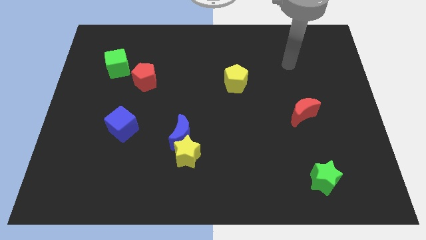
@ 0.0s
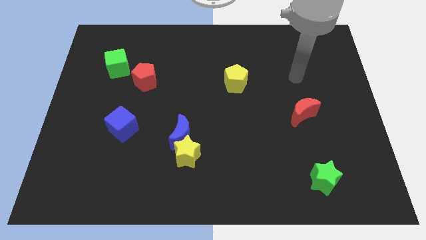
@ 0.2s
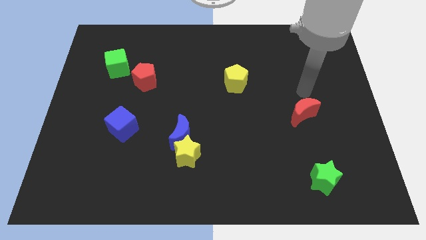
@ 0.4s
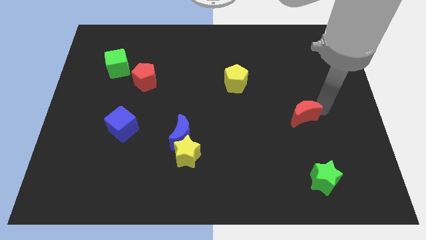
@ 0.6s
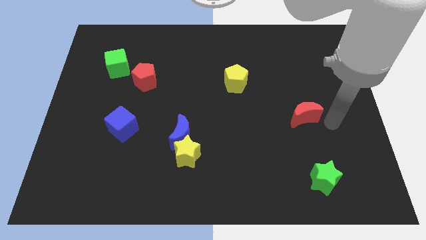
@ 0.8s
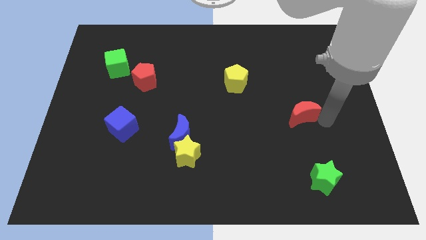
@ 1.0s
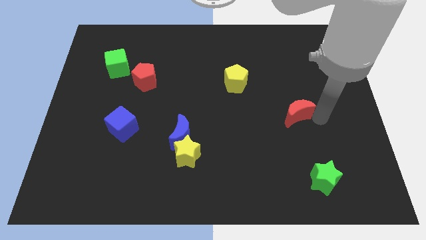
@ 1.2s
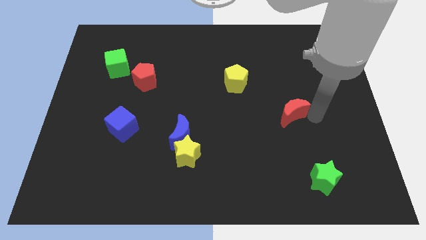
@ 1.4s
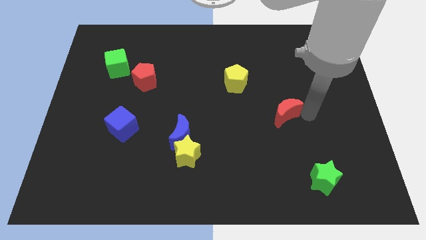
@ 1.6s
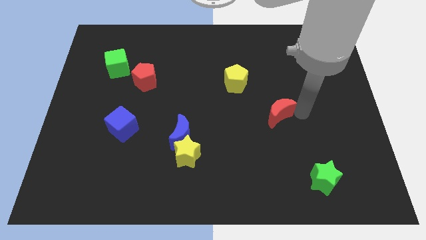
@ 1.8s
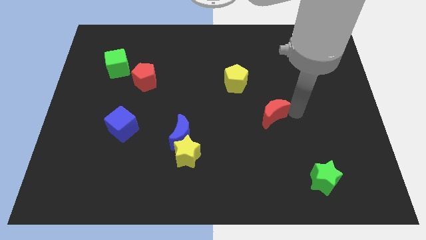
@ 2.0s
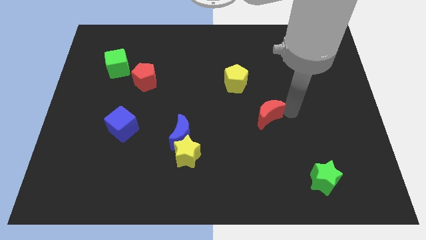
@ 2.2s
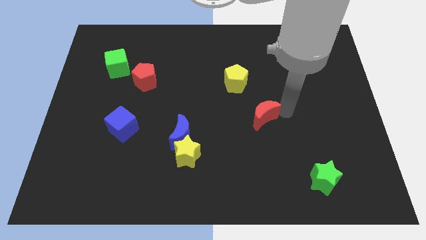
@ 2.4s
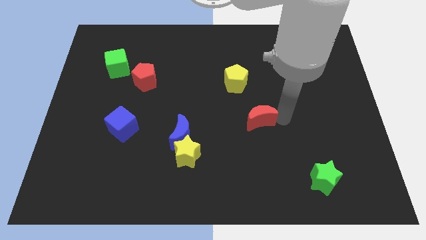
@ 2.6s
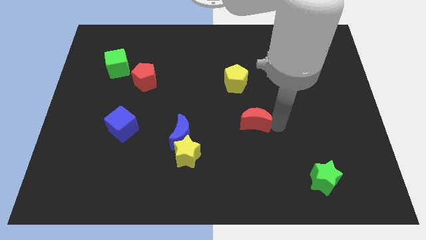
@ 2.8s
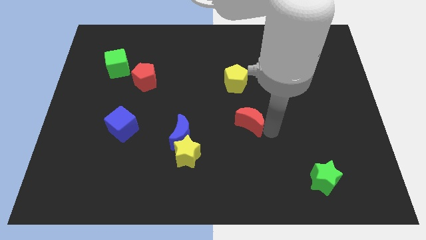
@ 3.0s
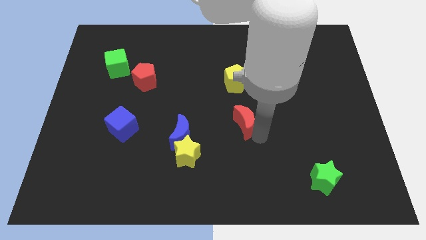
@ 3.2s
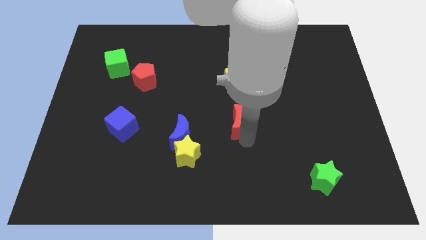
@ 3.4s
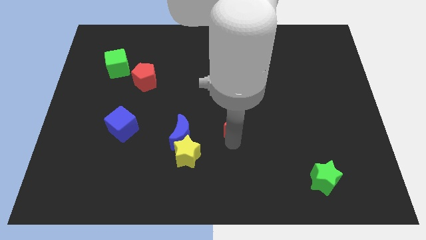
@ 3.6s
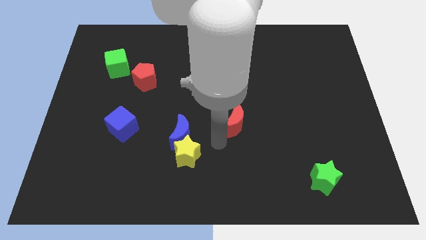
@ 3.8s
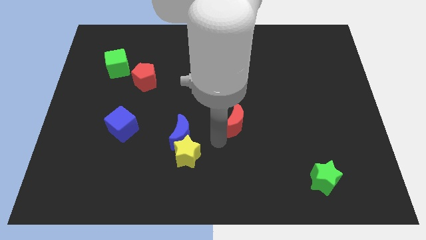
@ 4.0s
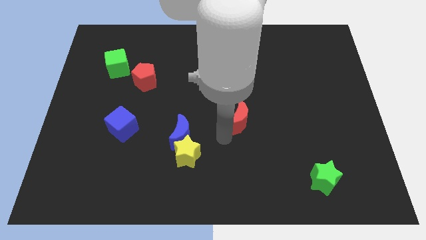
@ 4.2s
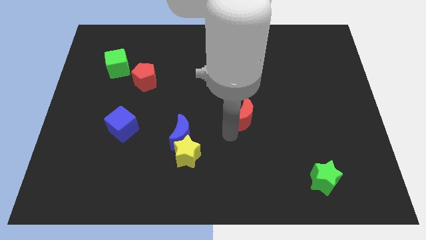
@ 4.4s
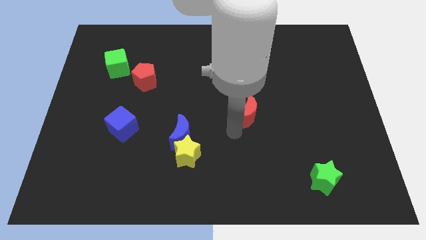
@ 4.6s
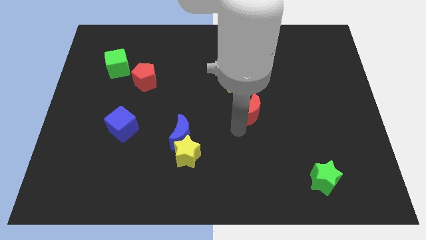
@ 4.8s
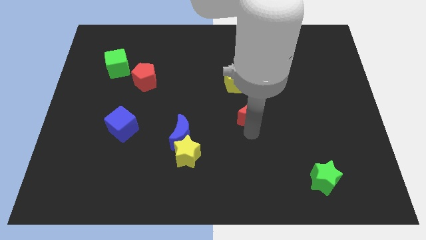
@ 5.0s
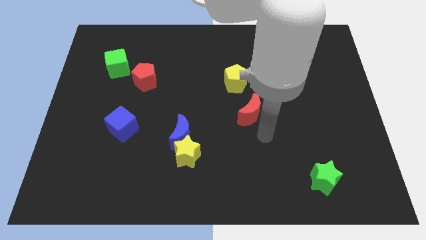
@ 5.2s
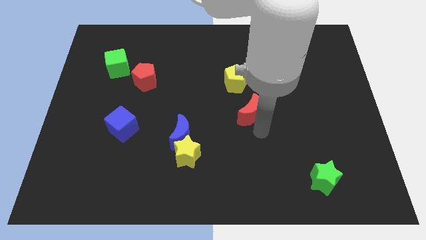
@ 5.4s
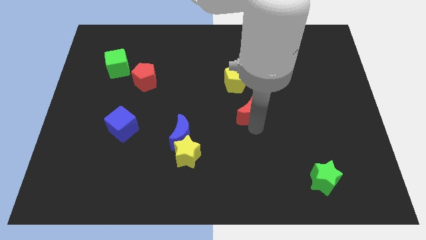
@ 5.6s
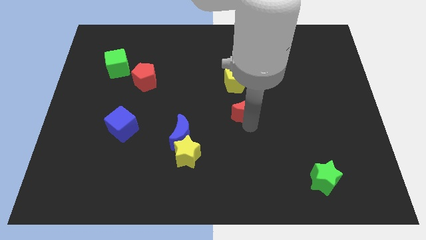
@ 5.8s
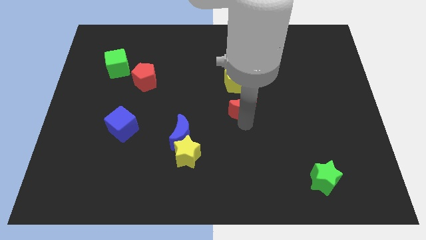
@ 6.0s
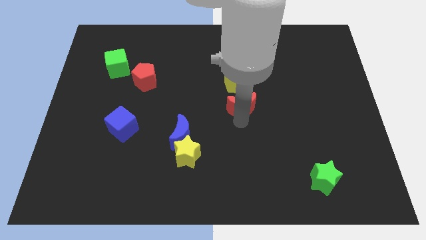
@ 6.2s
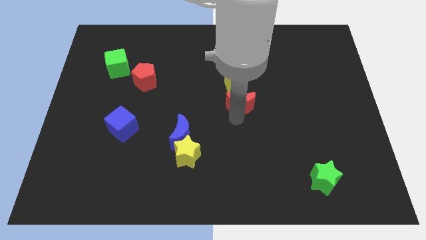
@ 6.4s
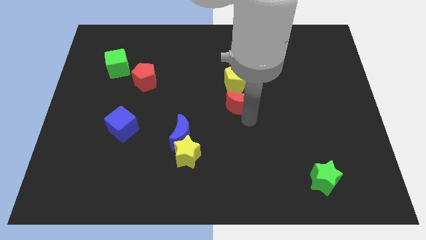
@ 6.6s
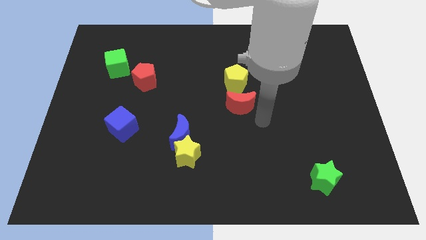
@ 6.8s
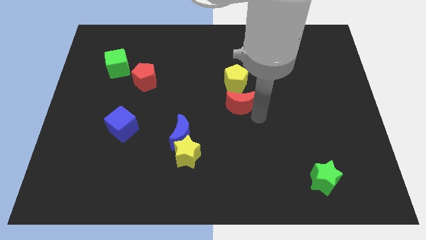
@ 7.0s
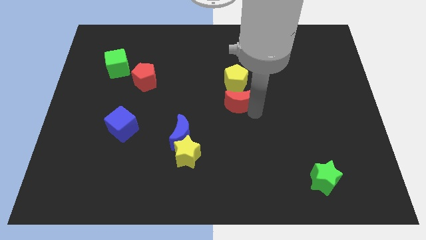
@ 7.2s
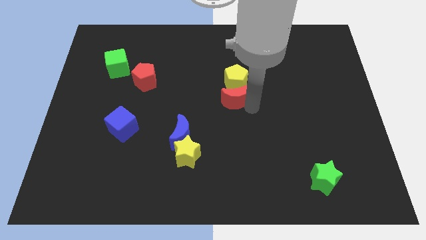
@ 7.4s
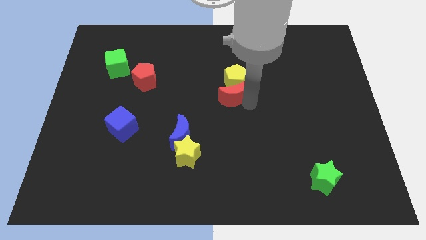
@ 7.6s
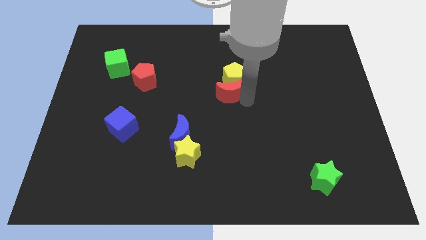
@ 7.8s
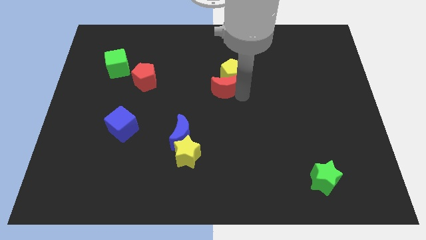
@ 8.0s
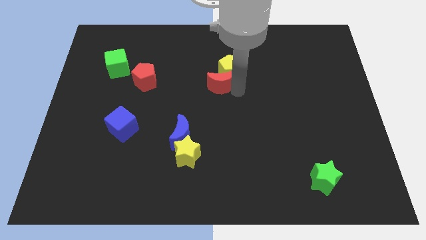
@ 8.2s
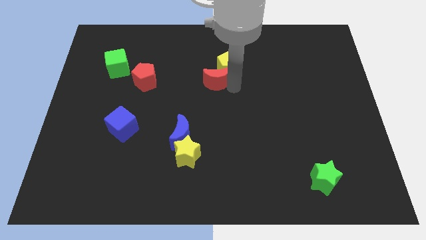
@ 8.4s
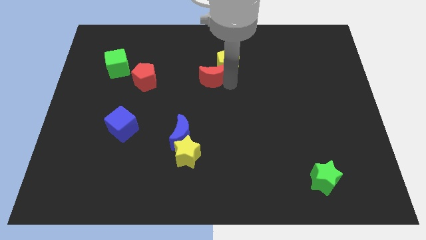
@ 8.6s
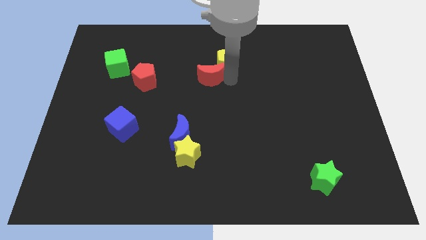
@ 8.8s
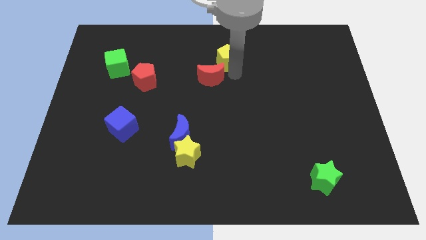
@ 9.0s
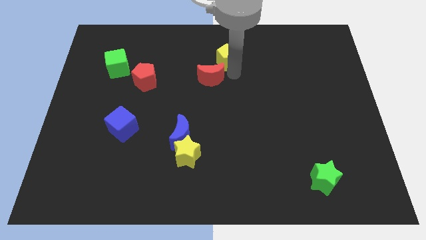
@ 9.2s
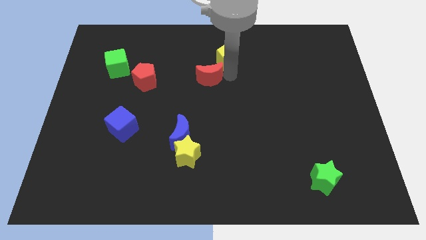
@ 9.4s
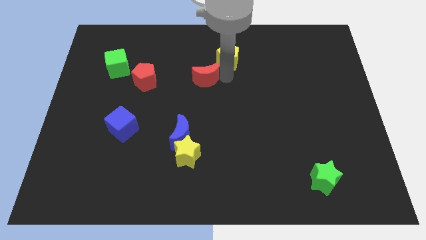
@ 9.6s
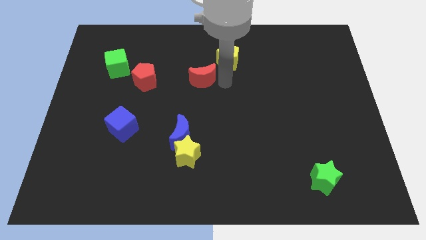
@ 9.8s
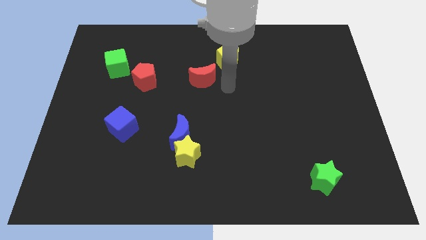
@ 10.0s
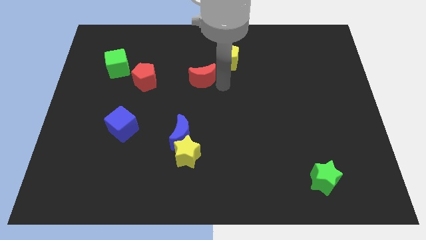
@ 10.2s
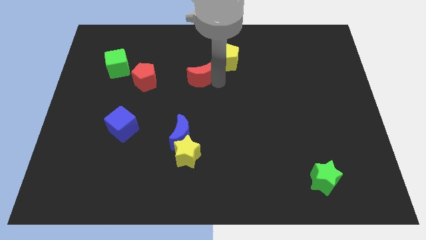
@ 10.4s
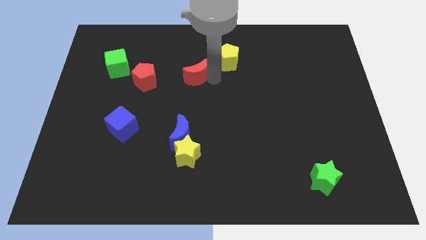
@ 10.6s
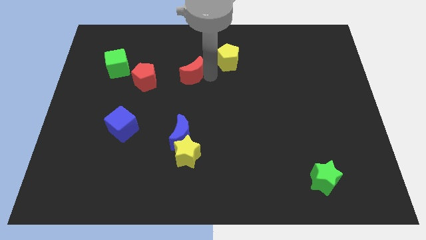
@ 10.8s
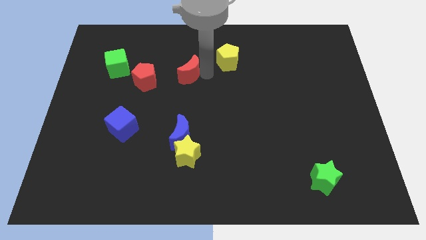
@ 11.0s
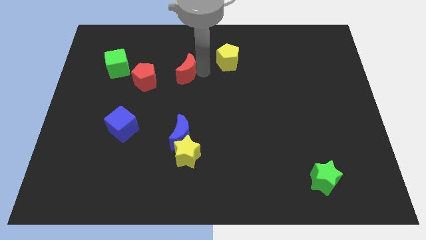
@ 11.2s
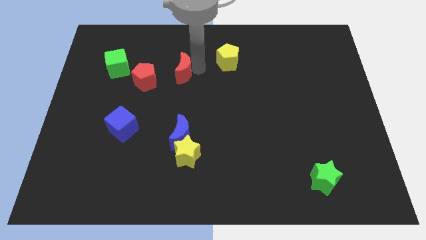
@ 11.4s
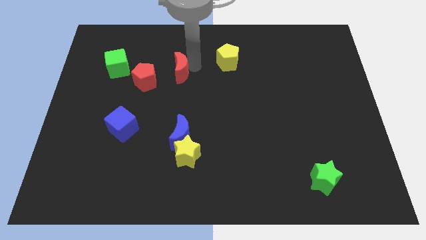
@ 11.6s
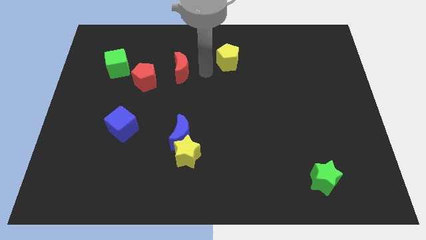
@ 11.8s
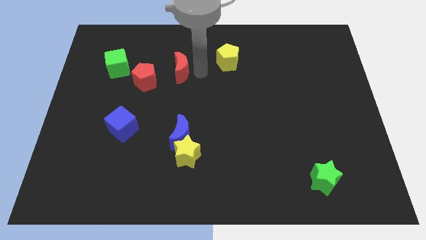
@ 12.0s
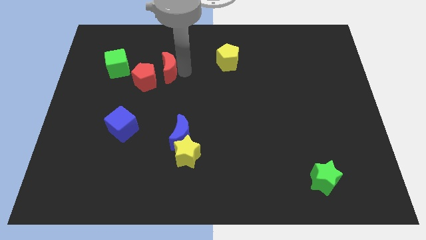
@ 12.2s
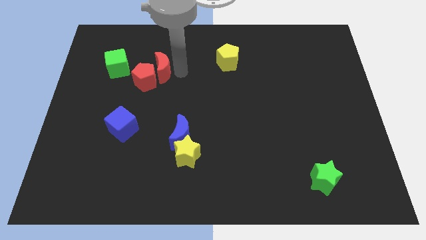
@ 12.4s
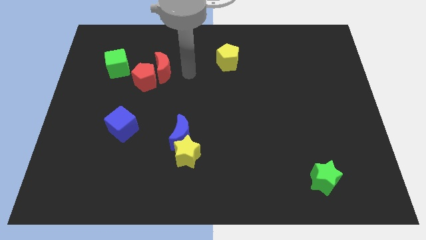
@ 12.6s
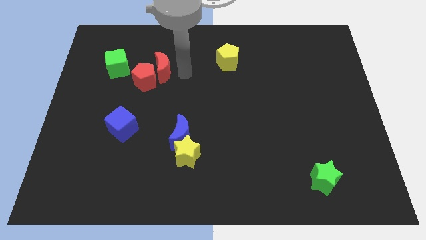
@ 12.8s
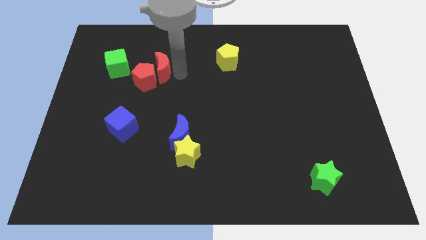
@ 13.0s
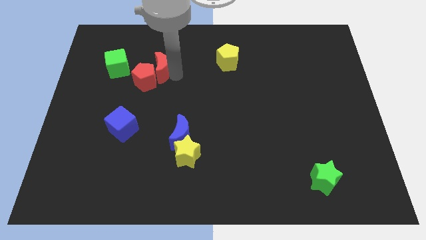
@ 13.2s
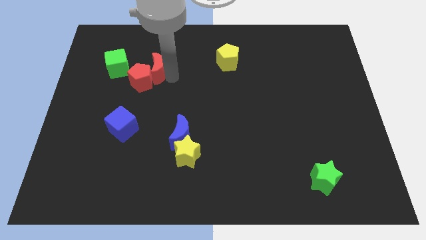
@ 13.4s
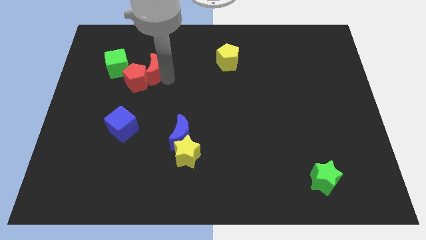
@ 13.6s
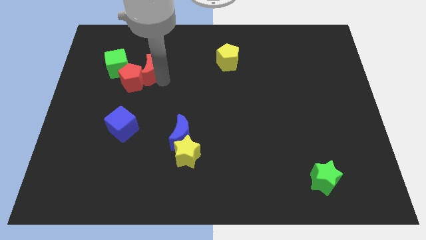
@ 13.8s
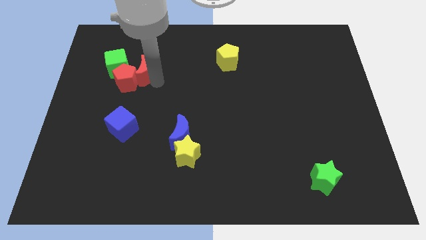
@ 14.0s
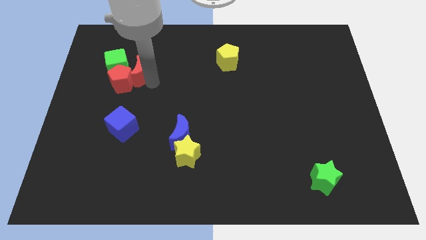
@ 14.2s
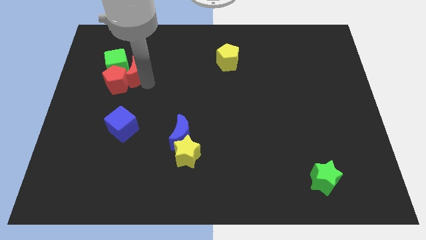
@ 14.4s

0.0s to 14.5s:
move the red moon close to the green cube

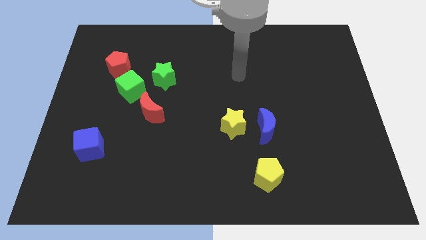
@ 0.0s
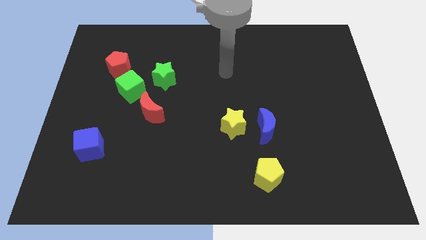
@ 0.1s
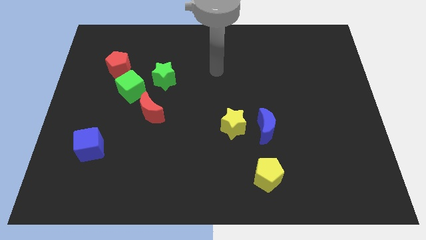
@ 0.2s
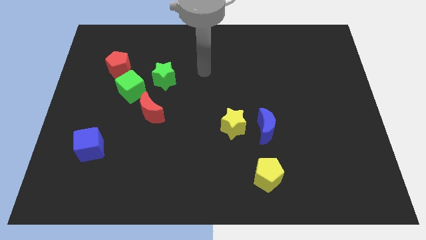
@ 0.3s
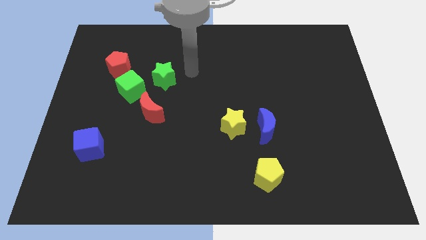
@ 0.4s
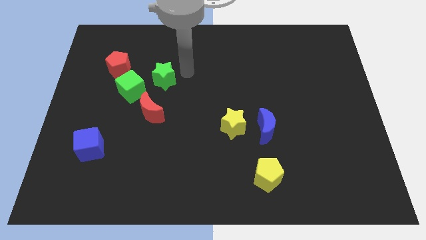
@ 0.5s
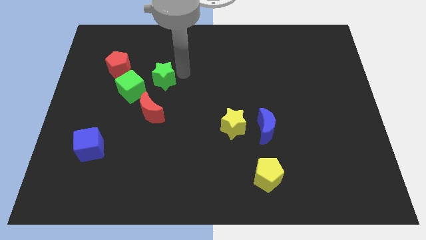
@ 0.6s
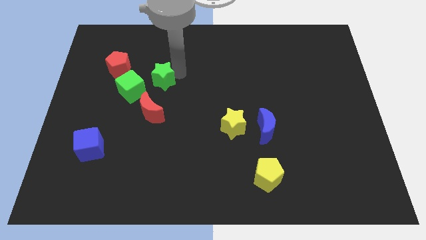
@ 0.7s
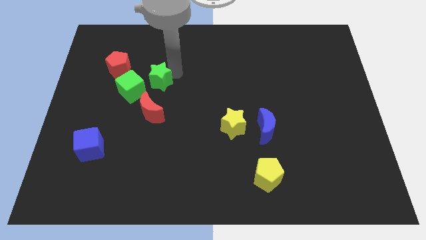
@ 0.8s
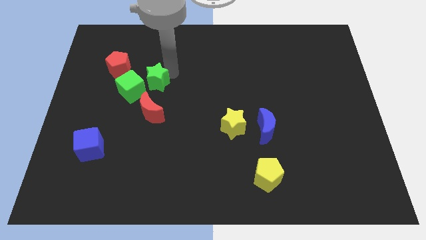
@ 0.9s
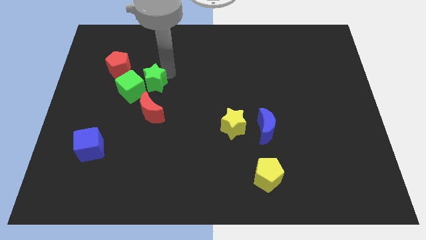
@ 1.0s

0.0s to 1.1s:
push the green star to the green cube
